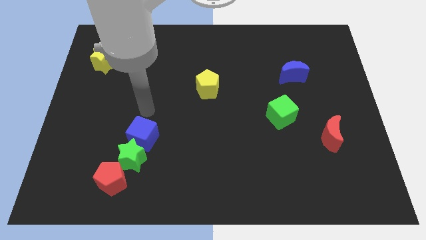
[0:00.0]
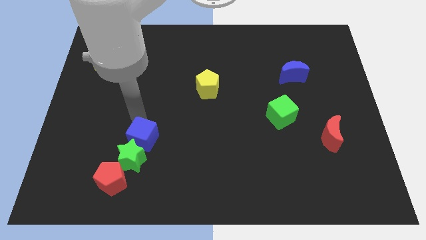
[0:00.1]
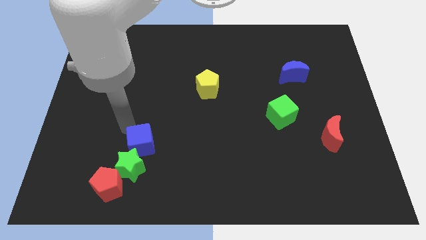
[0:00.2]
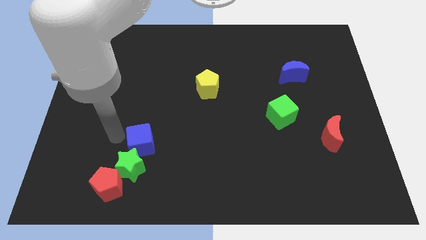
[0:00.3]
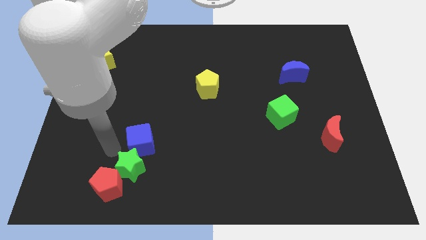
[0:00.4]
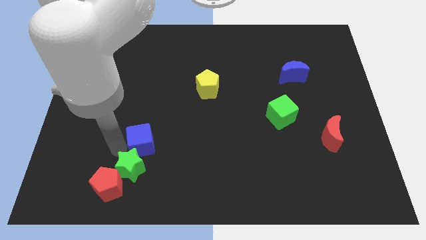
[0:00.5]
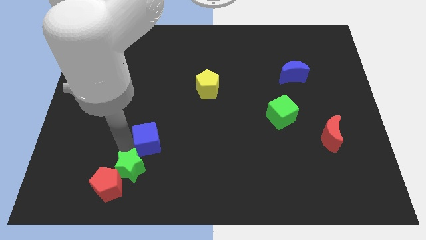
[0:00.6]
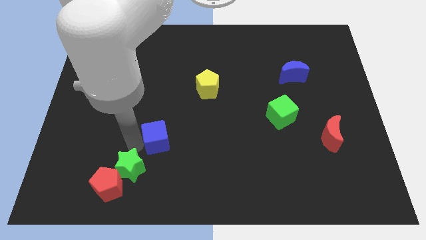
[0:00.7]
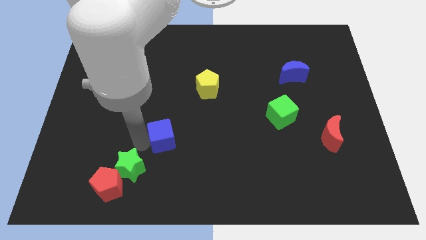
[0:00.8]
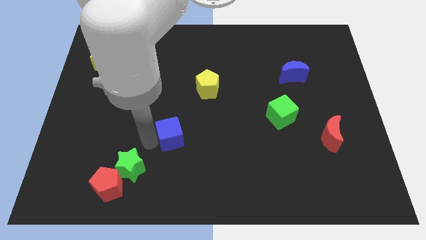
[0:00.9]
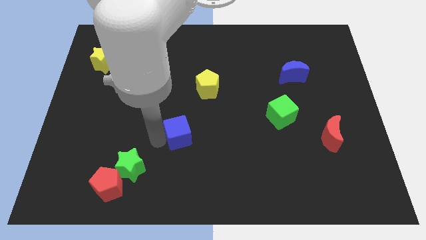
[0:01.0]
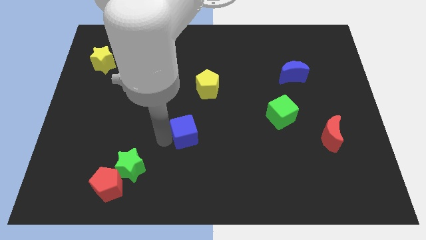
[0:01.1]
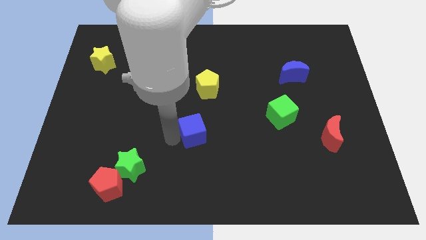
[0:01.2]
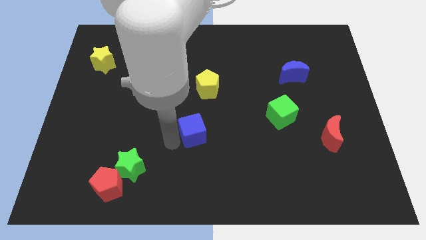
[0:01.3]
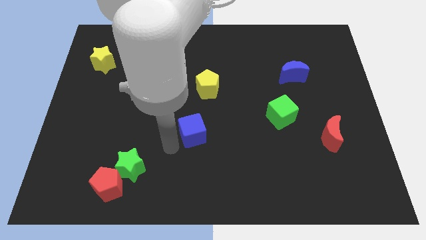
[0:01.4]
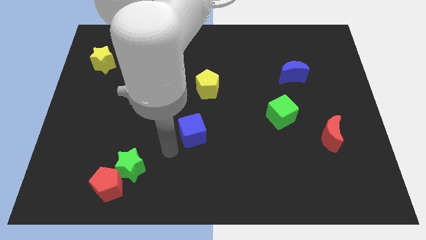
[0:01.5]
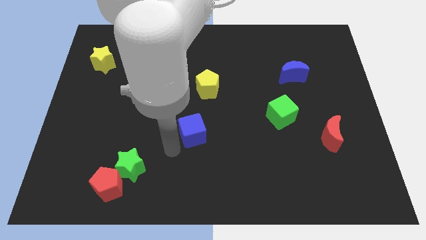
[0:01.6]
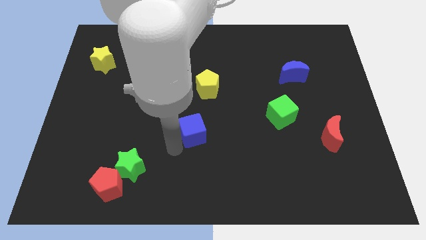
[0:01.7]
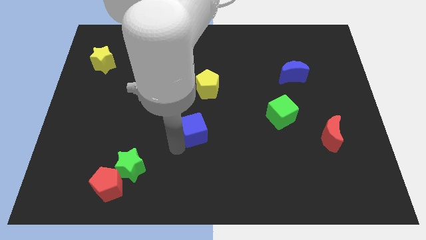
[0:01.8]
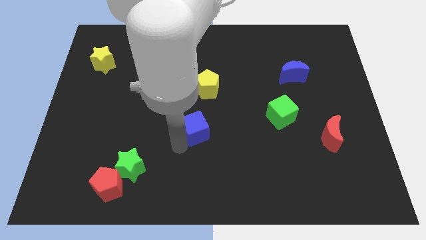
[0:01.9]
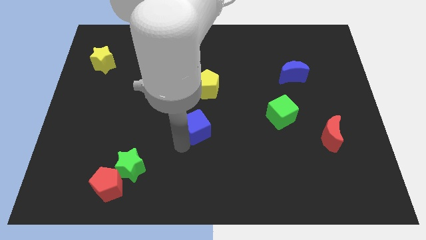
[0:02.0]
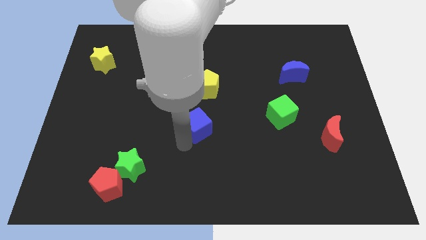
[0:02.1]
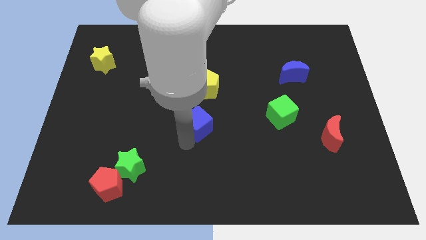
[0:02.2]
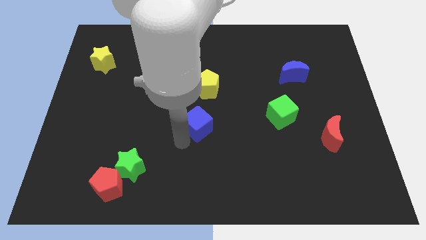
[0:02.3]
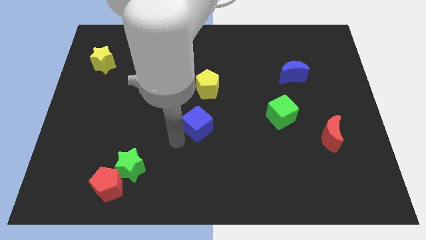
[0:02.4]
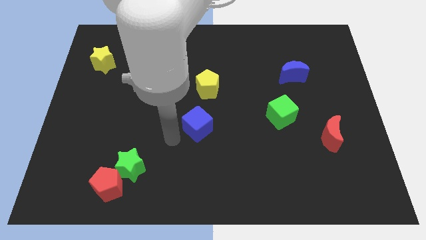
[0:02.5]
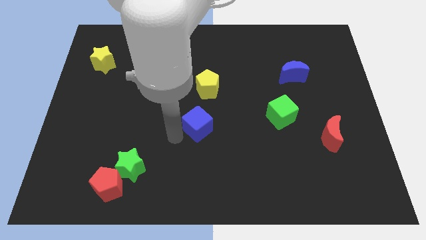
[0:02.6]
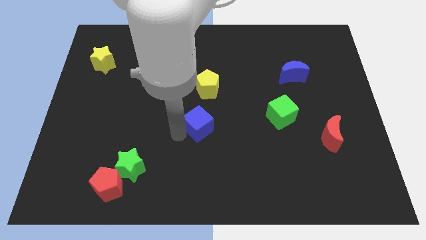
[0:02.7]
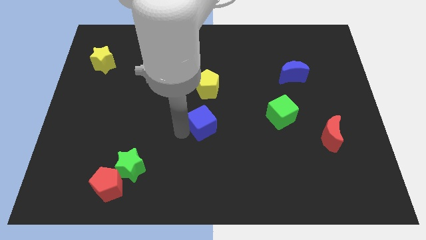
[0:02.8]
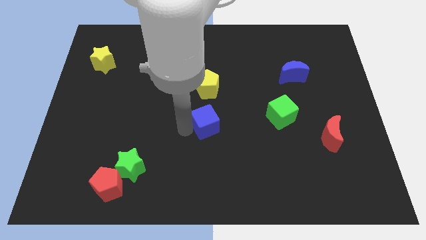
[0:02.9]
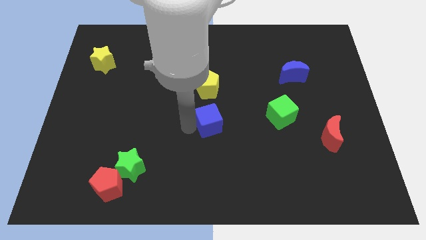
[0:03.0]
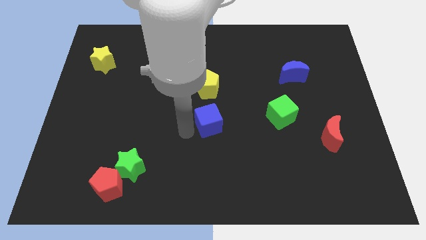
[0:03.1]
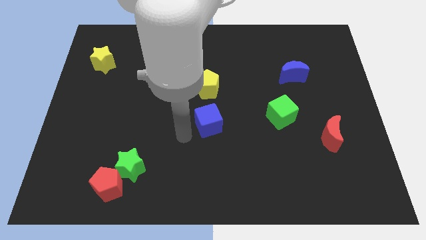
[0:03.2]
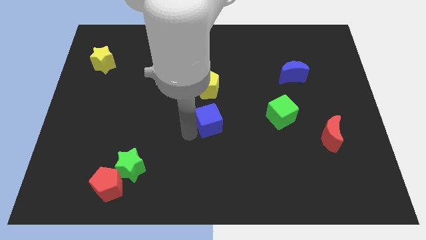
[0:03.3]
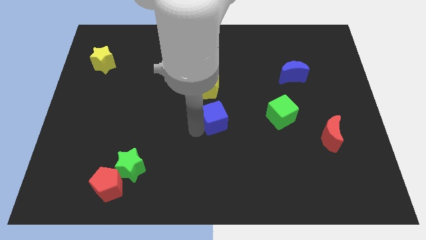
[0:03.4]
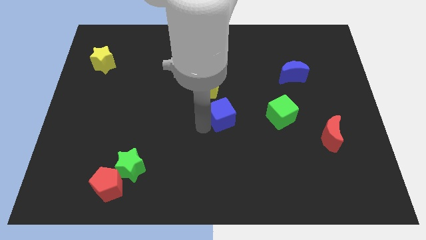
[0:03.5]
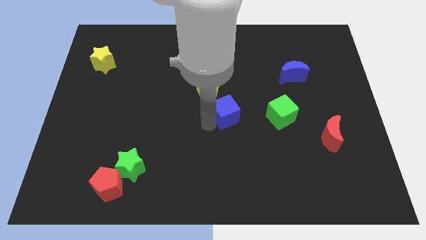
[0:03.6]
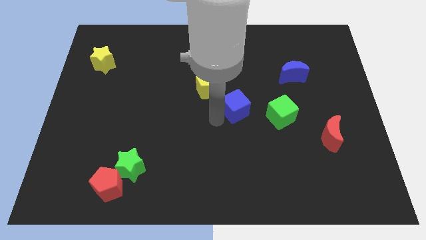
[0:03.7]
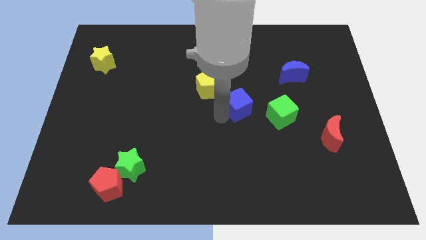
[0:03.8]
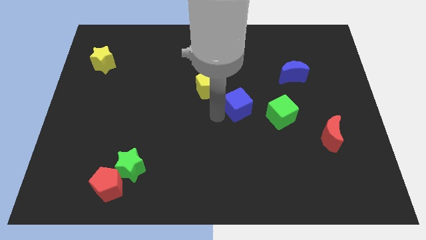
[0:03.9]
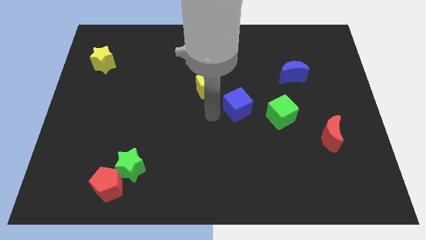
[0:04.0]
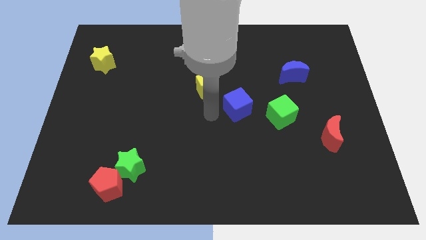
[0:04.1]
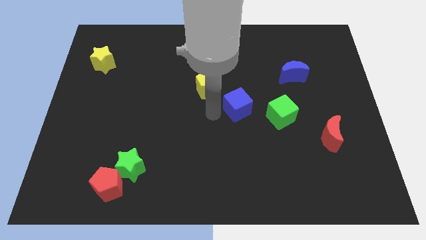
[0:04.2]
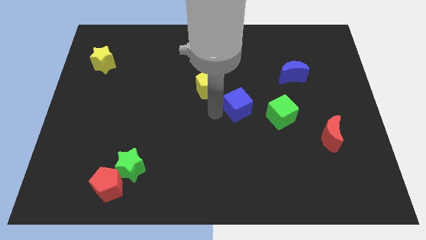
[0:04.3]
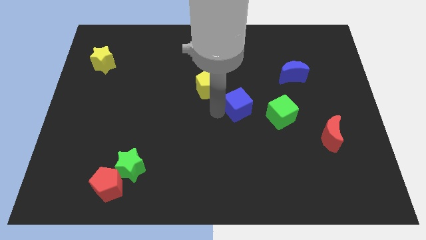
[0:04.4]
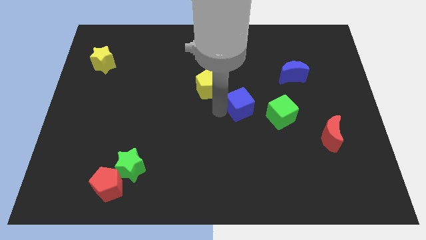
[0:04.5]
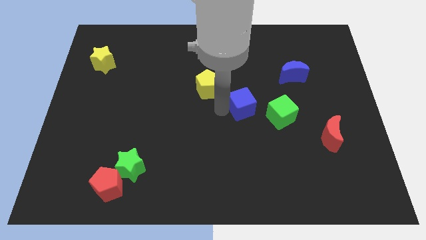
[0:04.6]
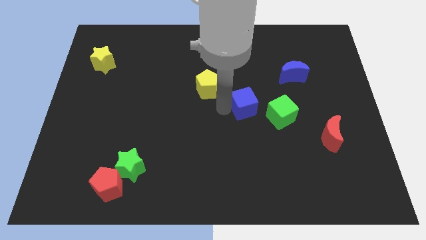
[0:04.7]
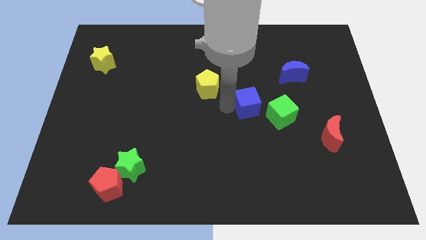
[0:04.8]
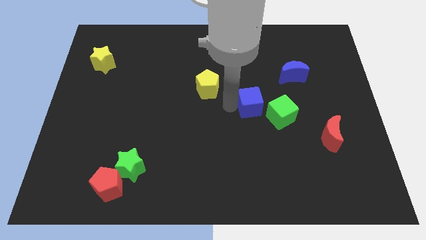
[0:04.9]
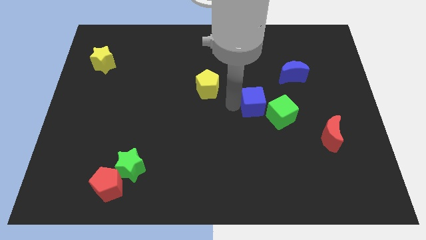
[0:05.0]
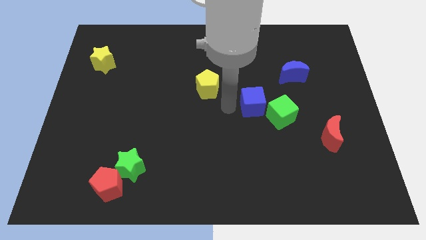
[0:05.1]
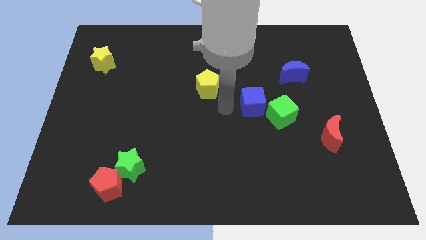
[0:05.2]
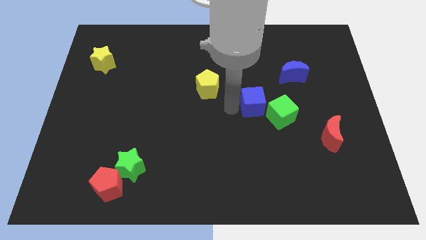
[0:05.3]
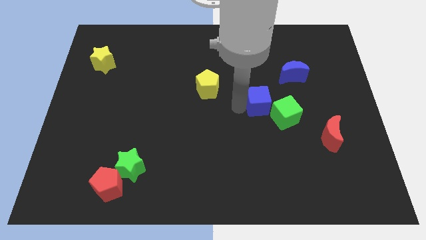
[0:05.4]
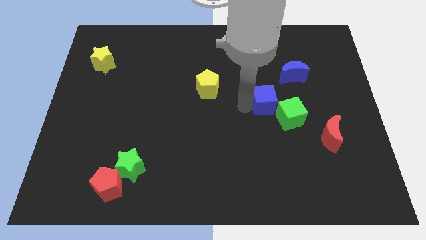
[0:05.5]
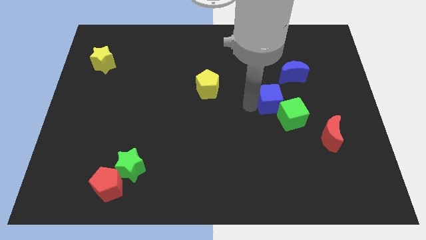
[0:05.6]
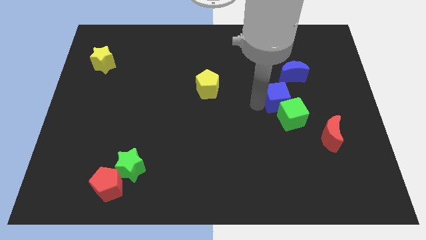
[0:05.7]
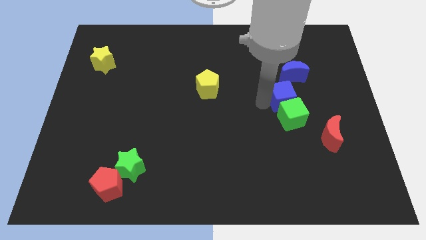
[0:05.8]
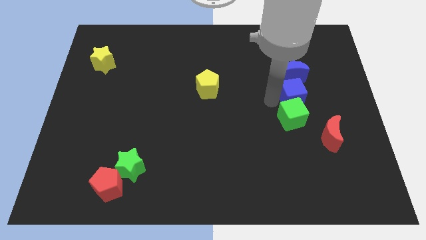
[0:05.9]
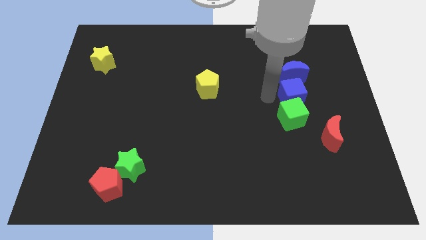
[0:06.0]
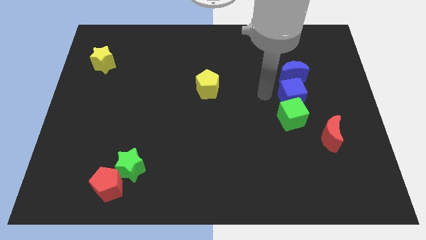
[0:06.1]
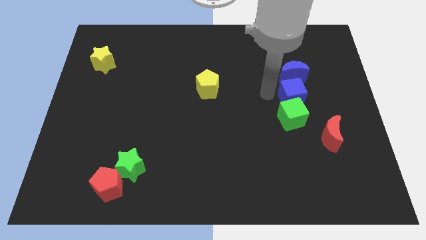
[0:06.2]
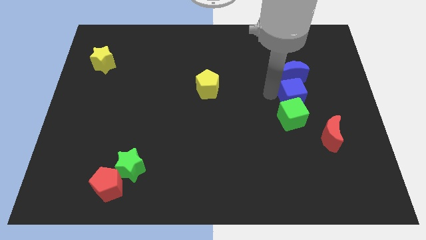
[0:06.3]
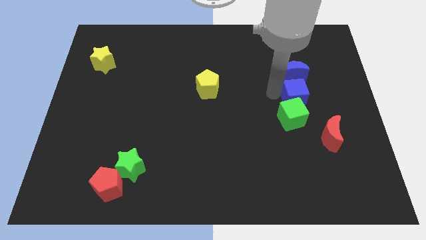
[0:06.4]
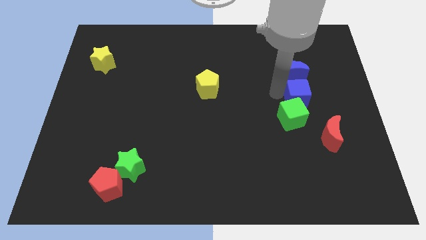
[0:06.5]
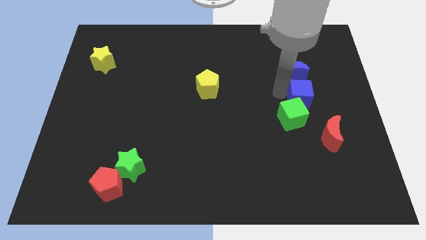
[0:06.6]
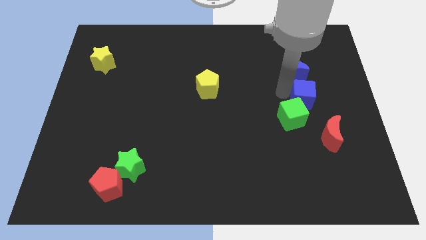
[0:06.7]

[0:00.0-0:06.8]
put the blue cube above the red moon
